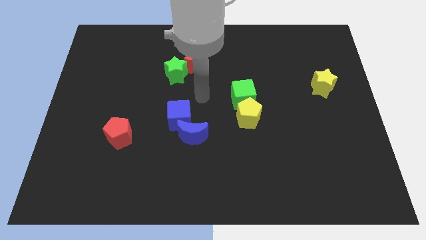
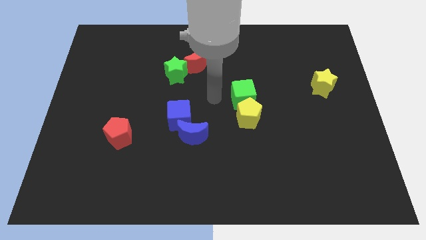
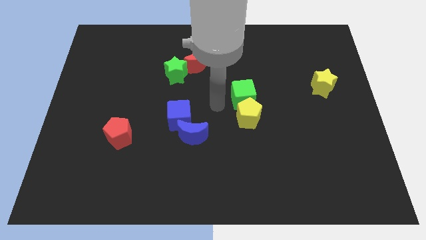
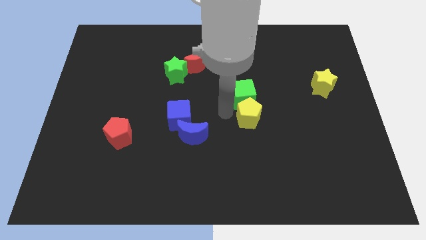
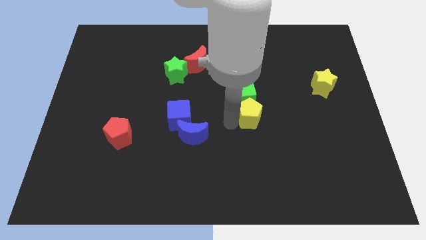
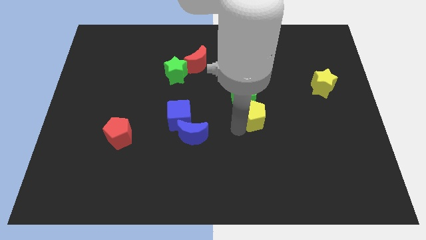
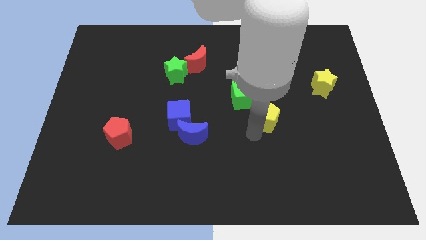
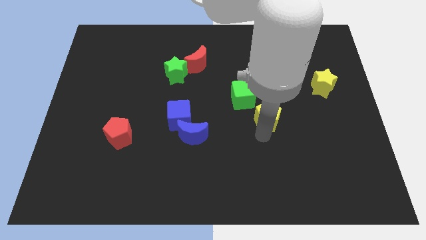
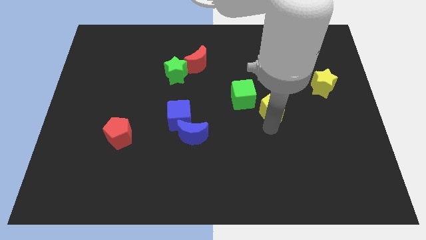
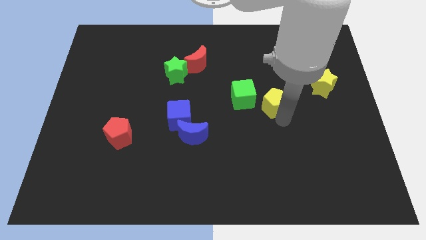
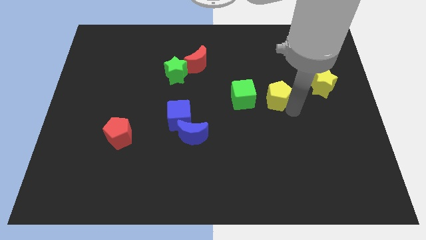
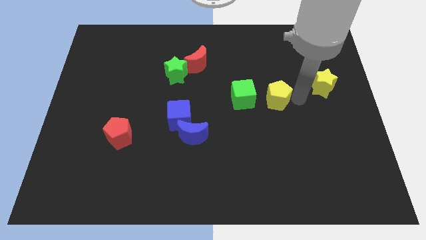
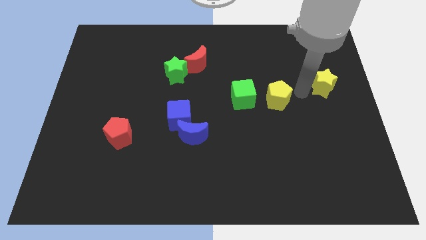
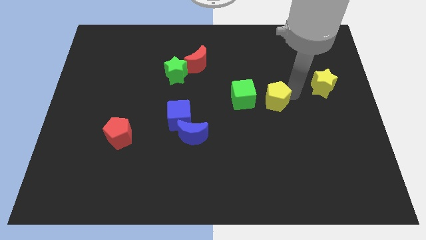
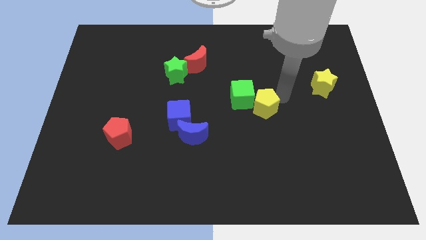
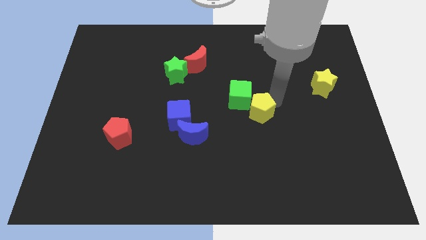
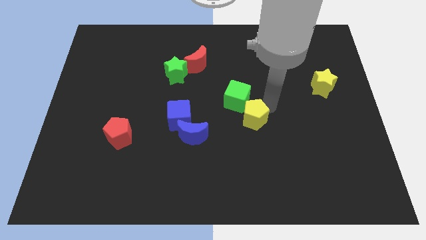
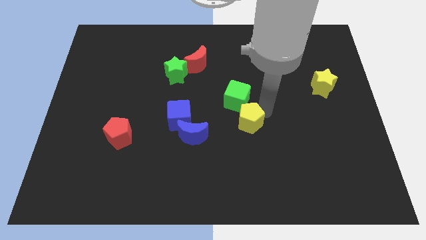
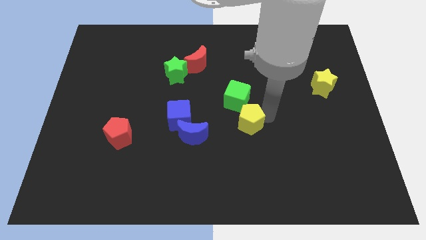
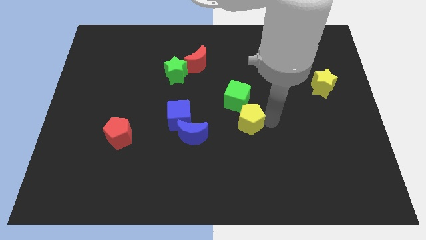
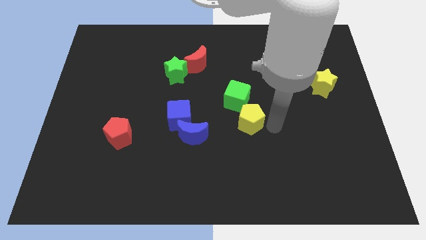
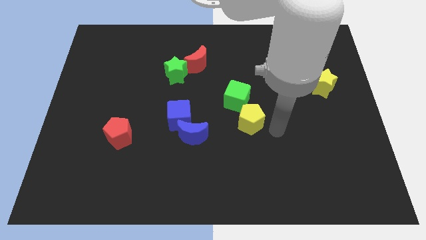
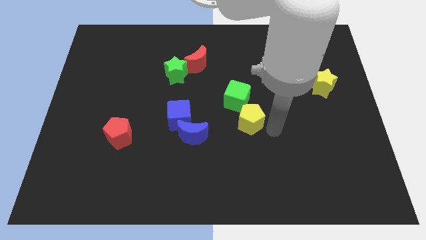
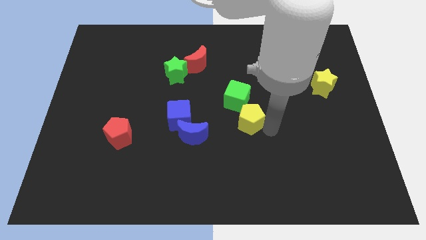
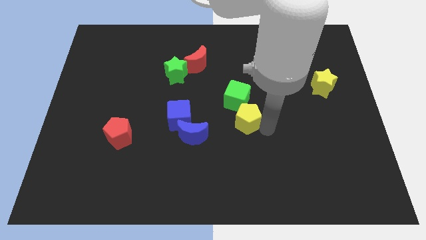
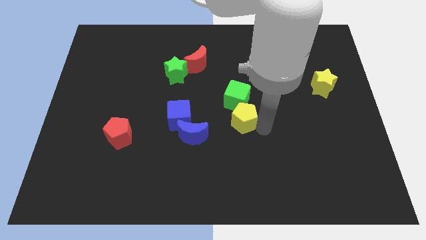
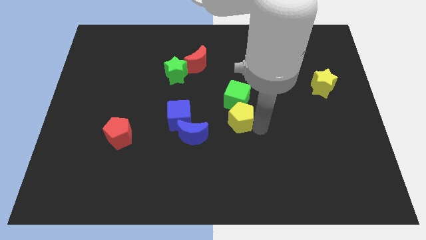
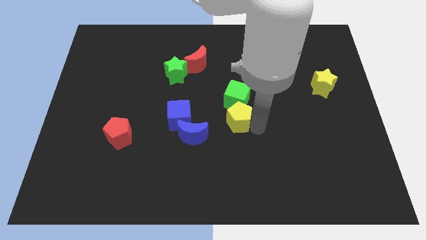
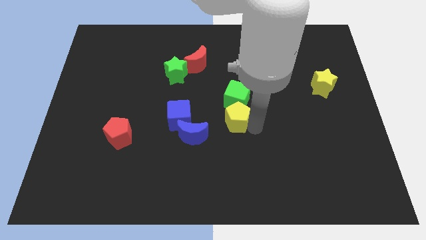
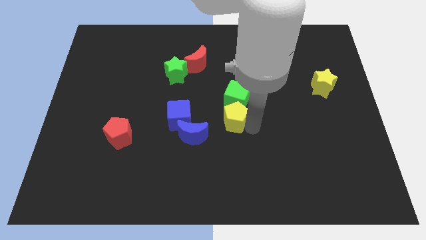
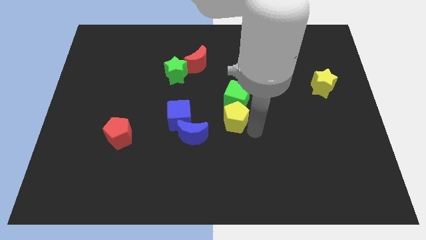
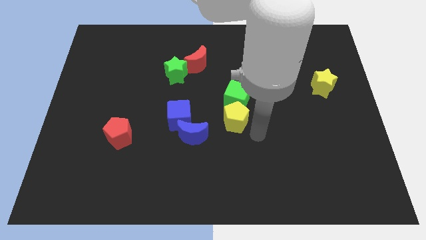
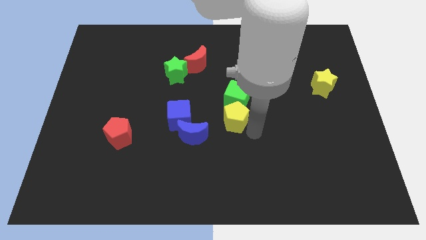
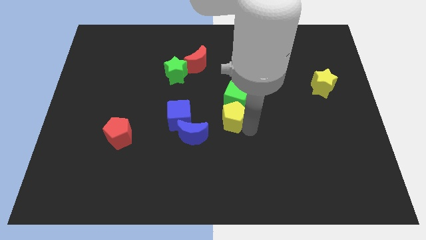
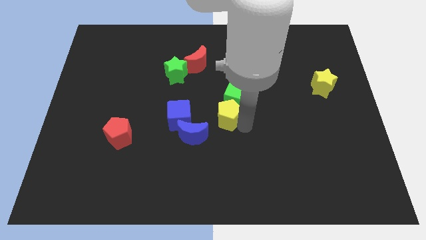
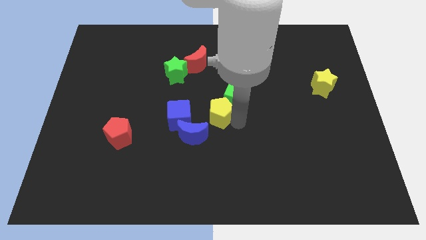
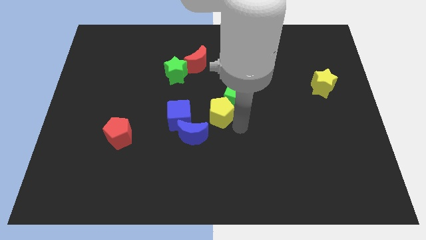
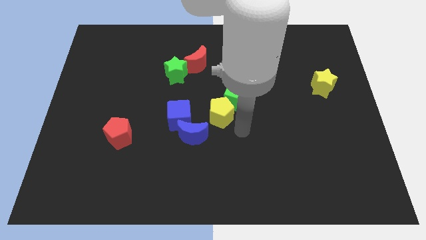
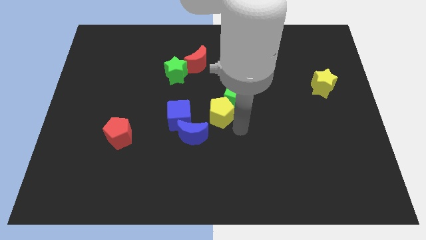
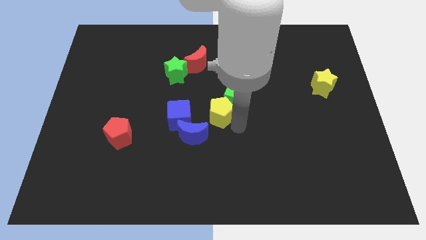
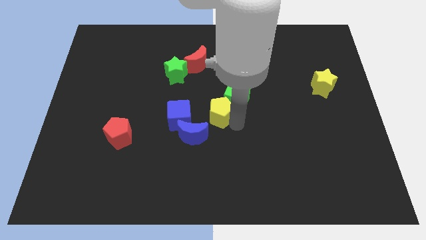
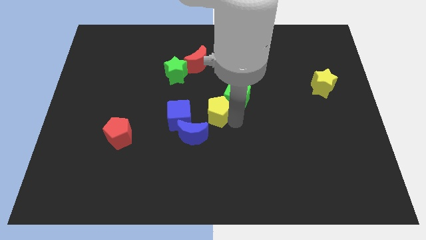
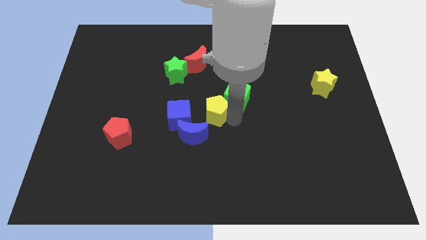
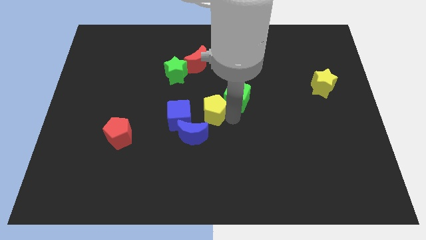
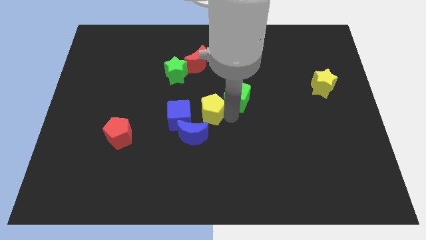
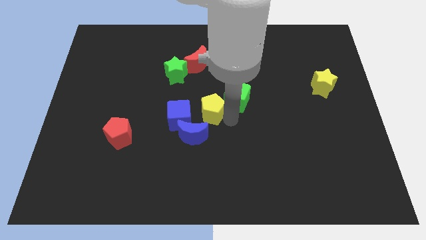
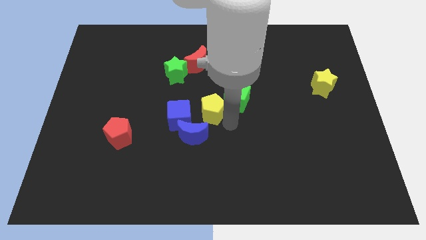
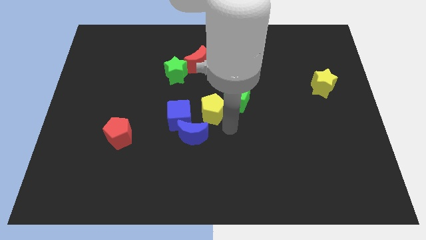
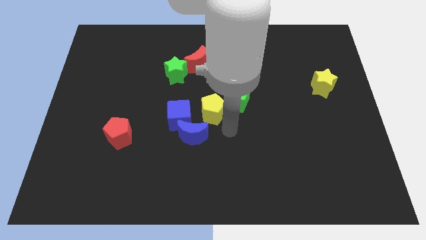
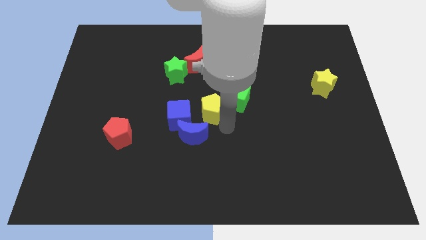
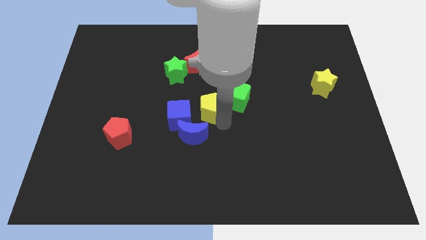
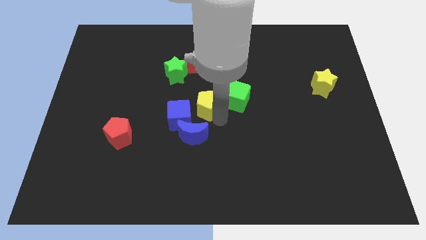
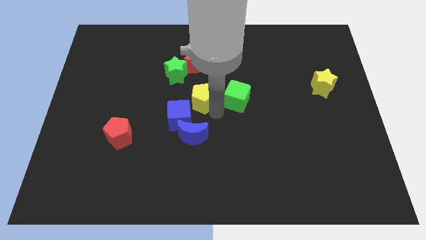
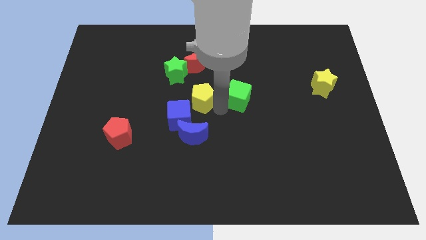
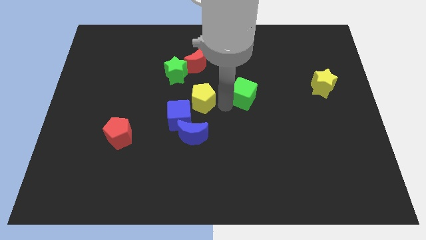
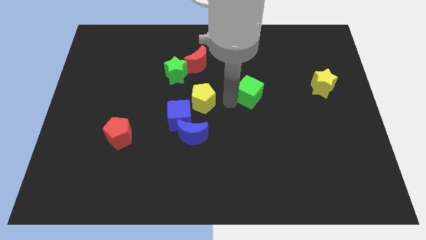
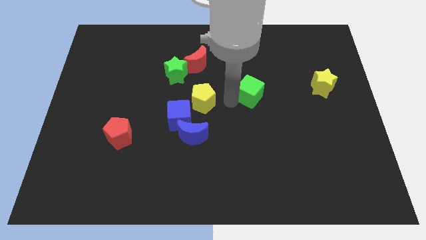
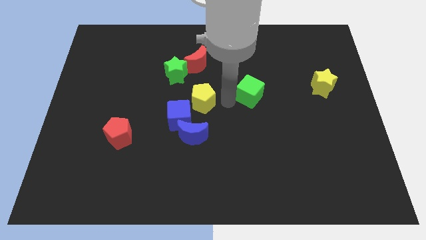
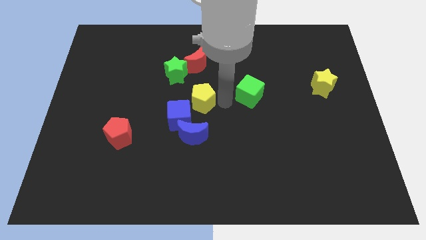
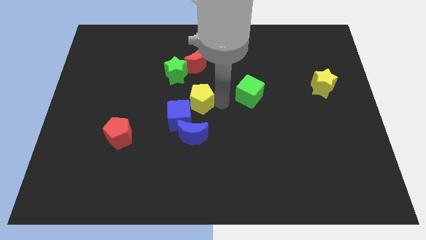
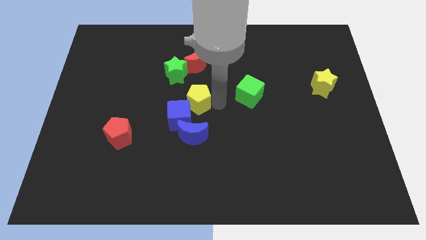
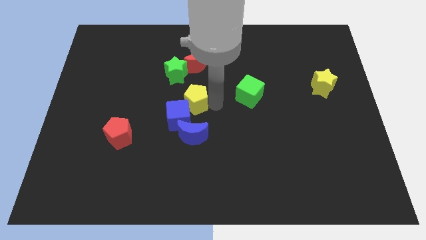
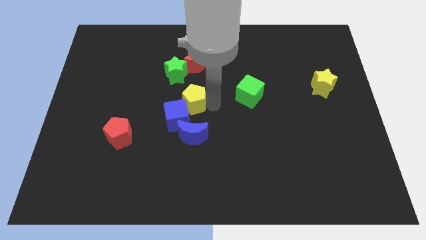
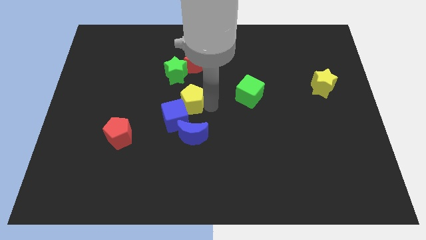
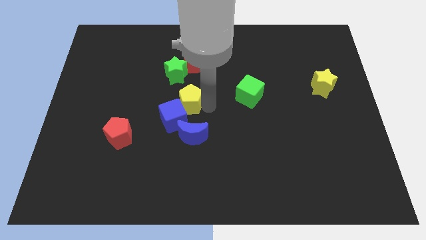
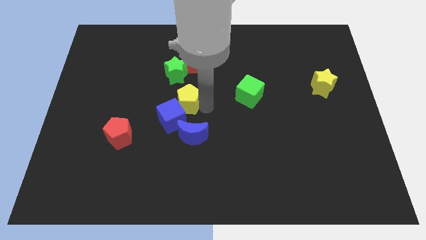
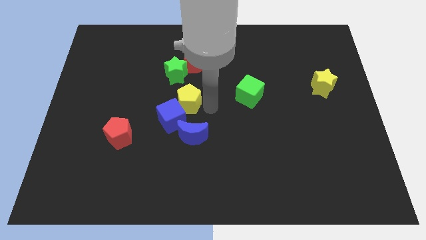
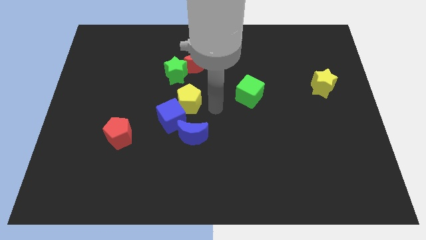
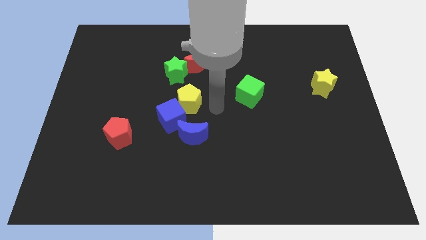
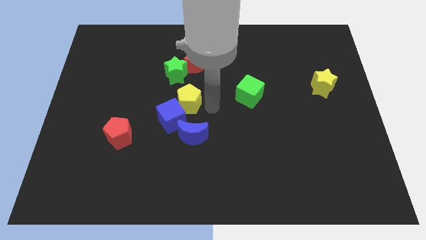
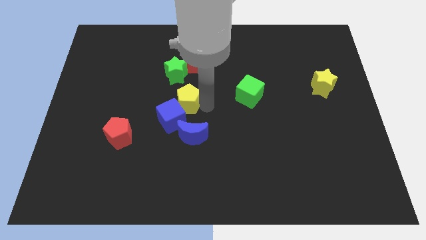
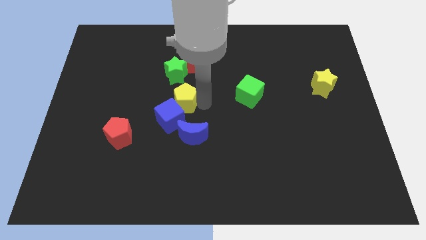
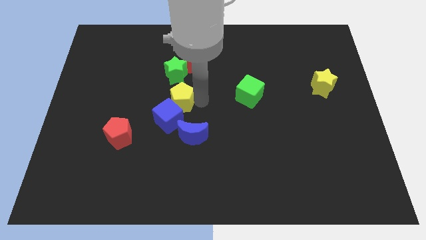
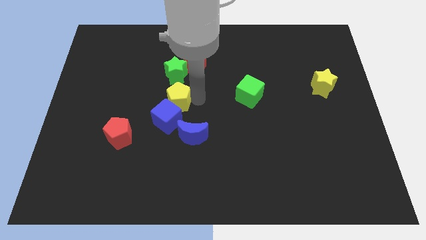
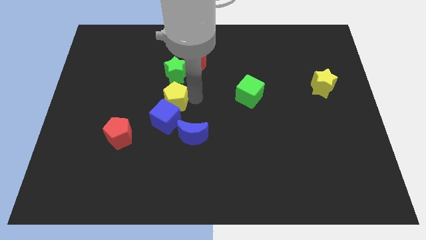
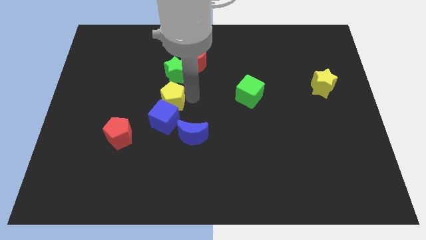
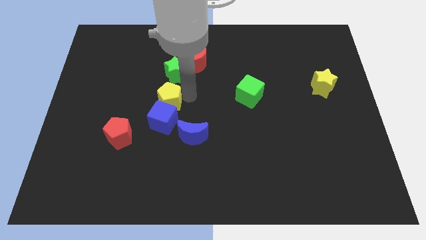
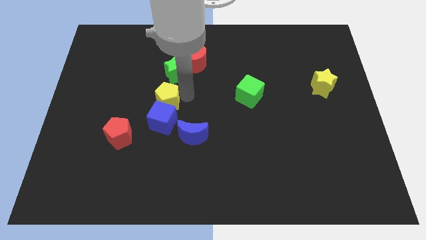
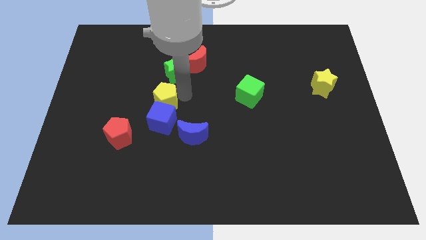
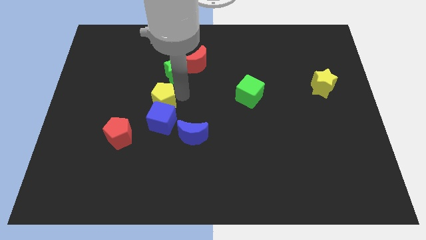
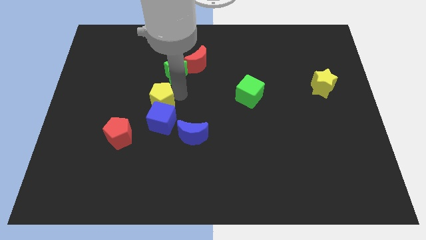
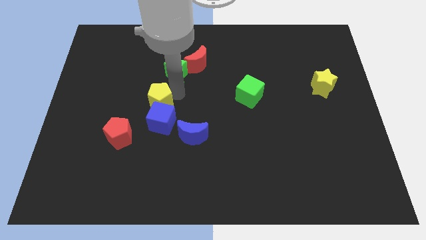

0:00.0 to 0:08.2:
move the yellow pentagon left
